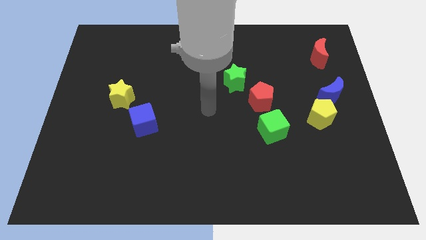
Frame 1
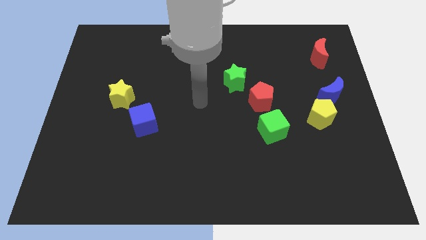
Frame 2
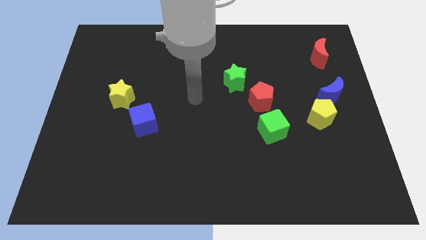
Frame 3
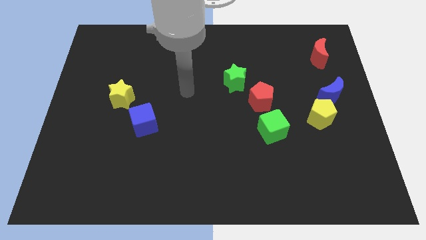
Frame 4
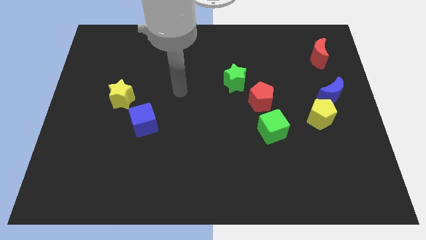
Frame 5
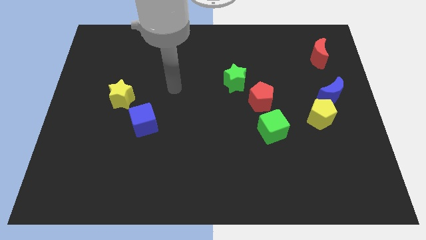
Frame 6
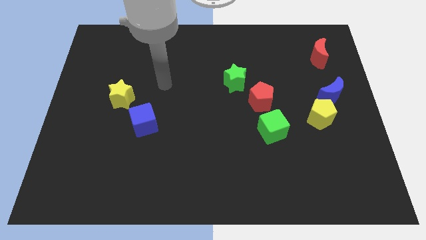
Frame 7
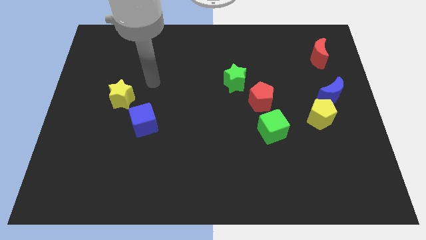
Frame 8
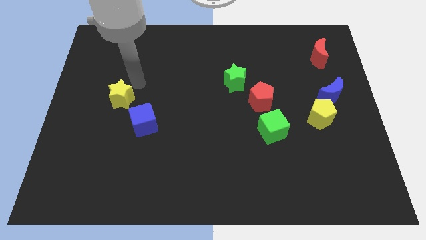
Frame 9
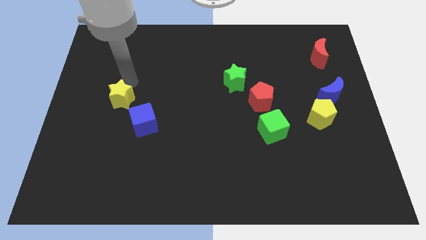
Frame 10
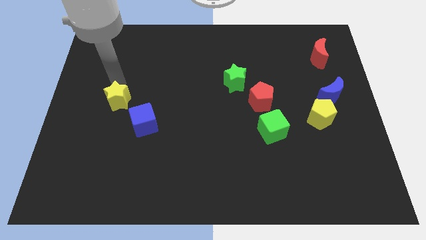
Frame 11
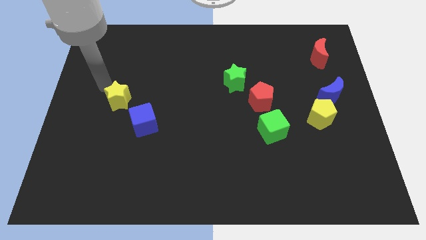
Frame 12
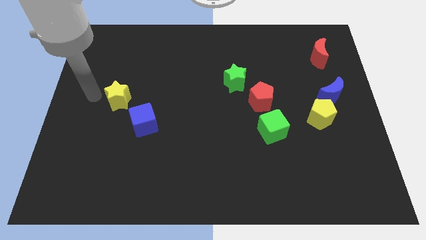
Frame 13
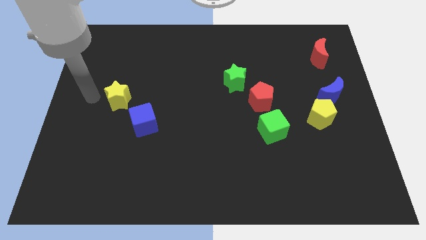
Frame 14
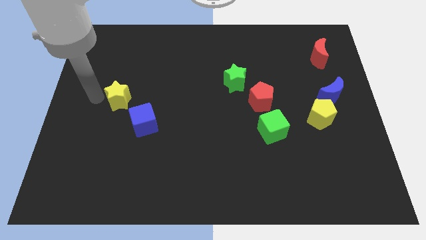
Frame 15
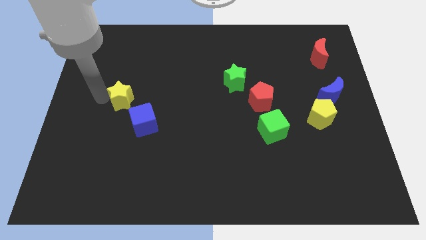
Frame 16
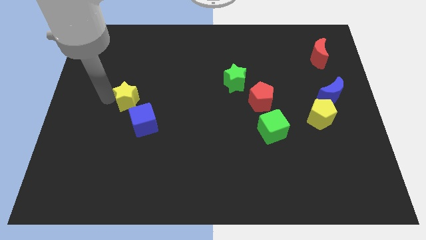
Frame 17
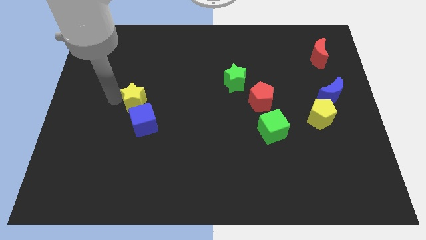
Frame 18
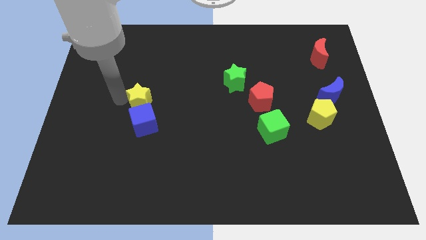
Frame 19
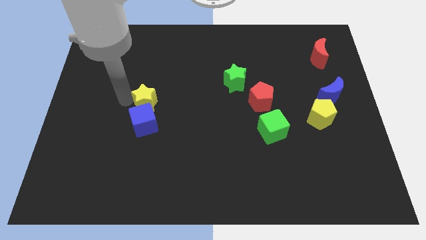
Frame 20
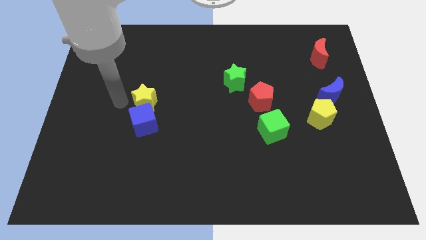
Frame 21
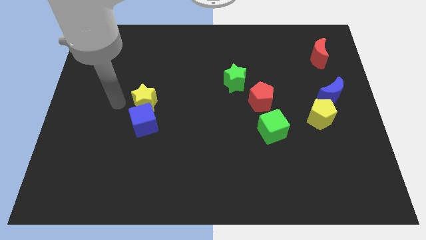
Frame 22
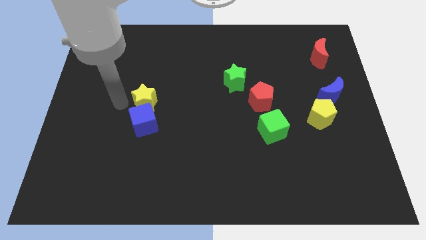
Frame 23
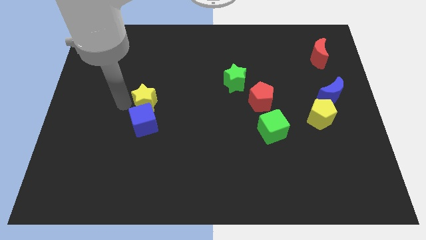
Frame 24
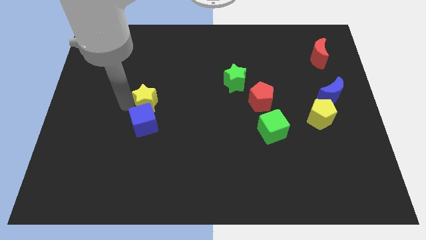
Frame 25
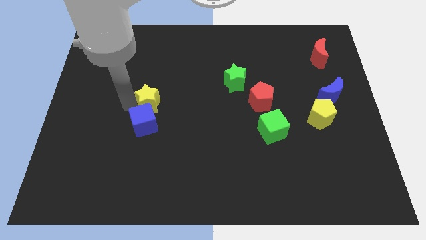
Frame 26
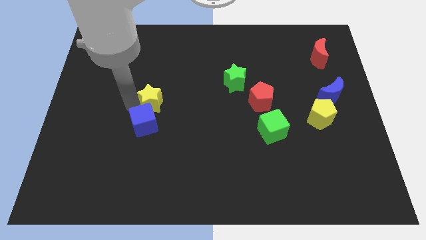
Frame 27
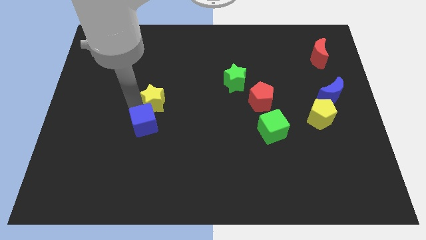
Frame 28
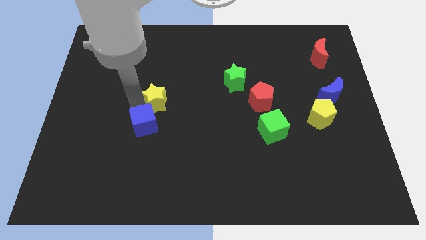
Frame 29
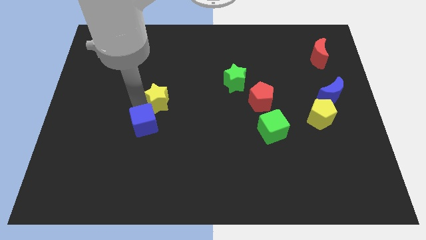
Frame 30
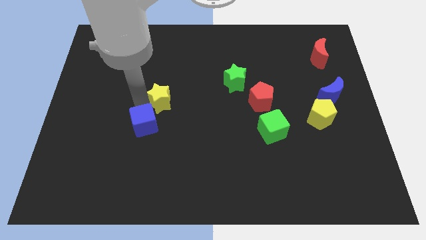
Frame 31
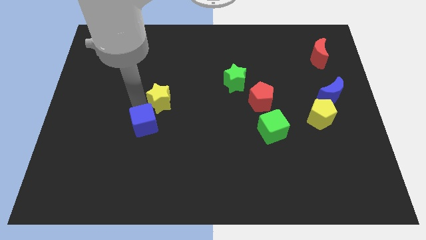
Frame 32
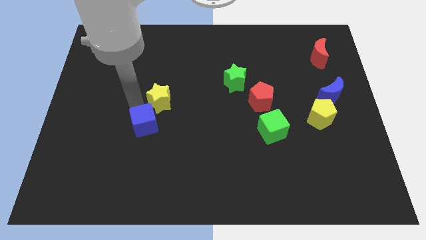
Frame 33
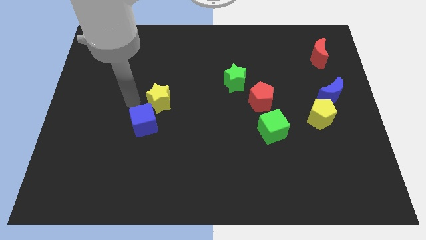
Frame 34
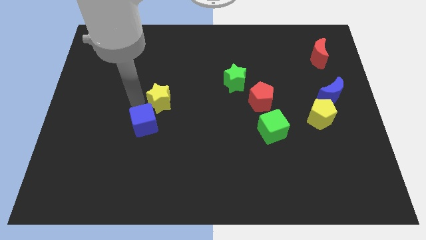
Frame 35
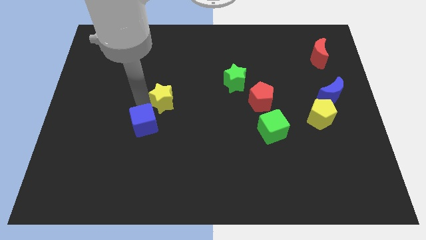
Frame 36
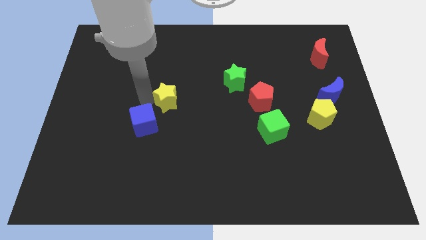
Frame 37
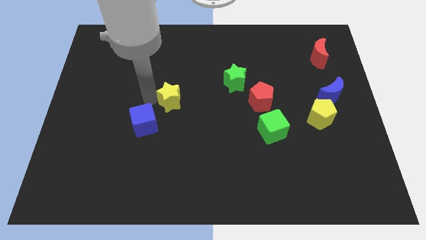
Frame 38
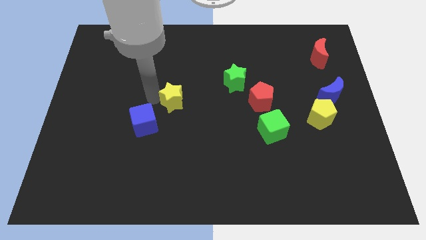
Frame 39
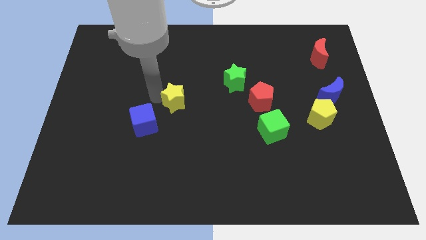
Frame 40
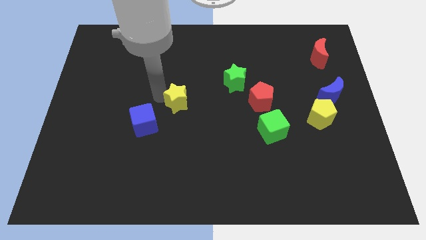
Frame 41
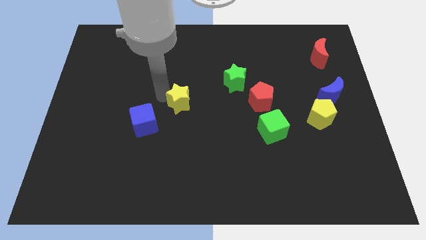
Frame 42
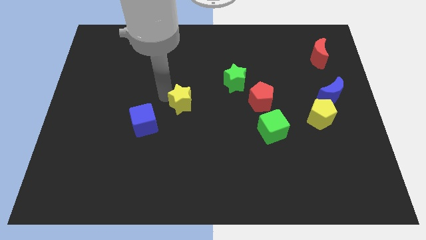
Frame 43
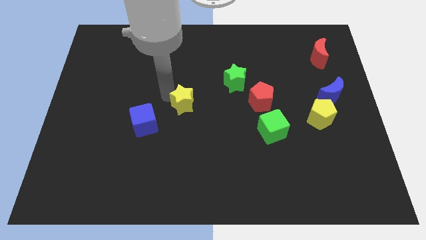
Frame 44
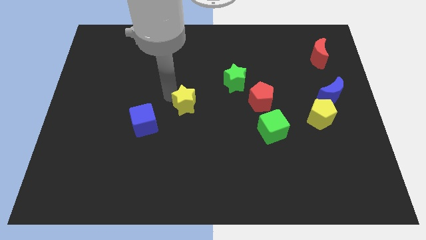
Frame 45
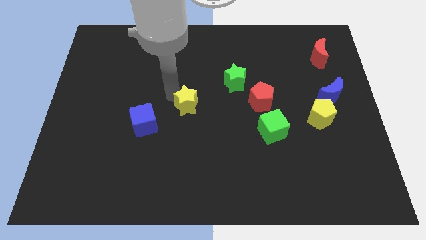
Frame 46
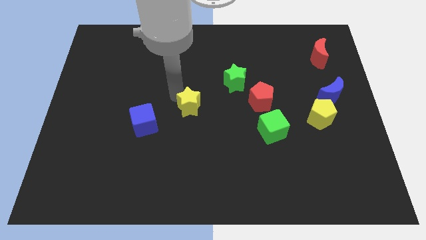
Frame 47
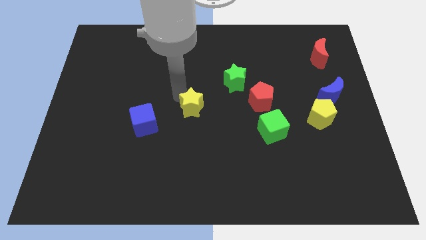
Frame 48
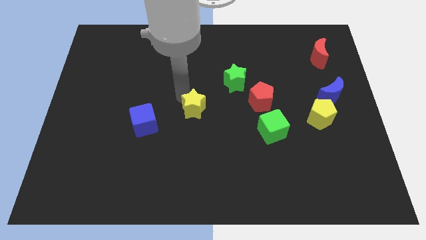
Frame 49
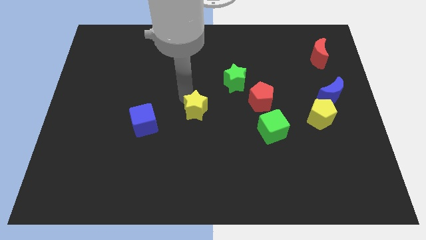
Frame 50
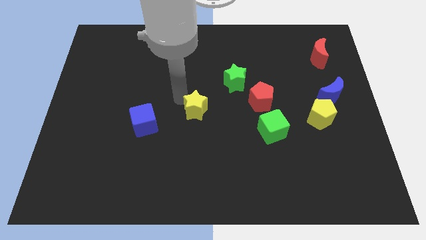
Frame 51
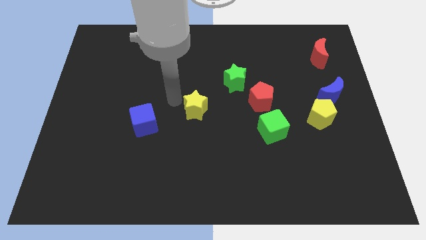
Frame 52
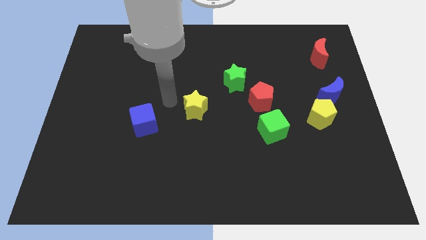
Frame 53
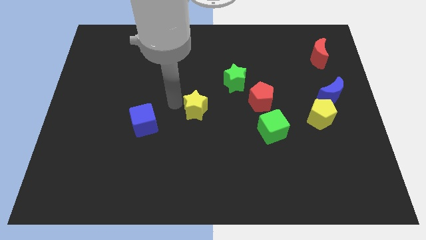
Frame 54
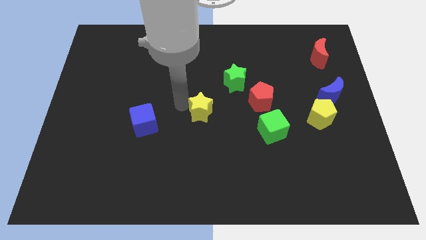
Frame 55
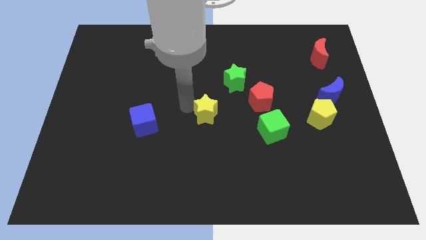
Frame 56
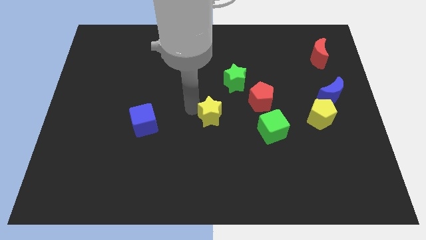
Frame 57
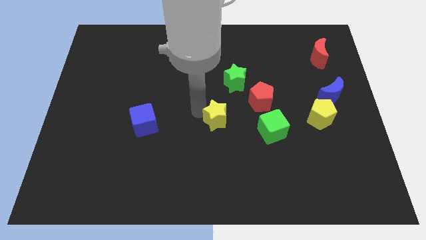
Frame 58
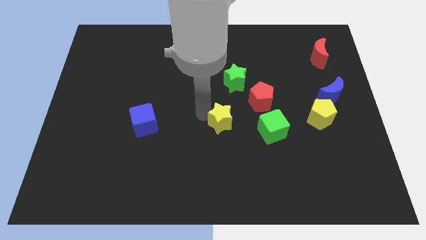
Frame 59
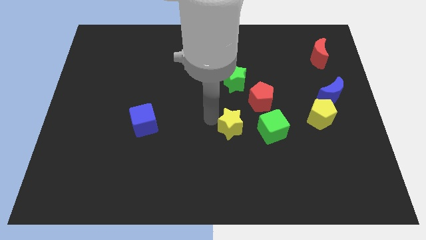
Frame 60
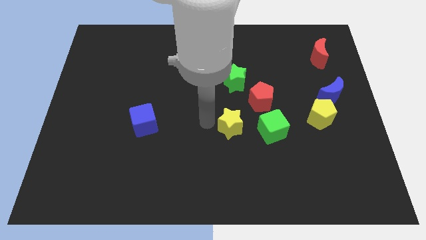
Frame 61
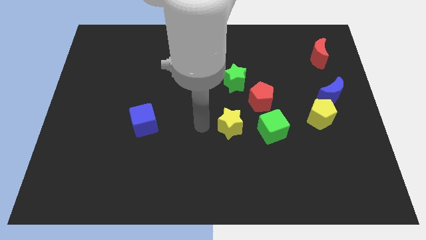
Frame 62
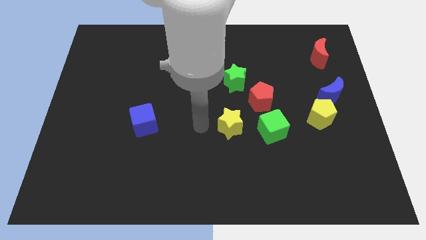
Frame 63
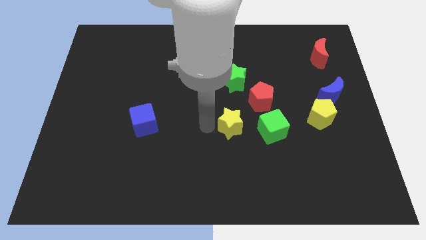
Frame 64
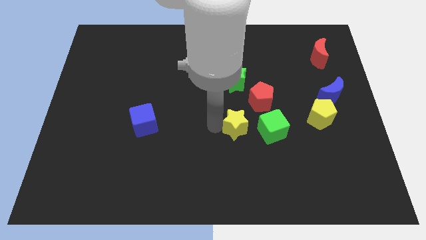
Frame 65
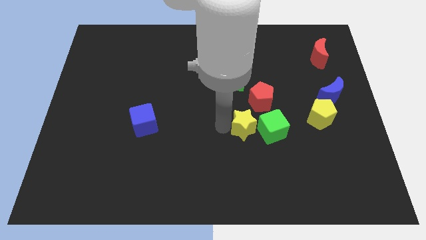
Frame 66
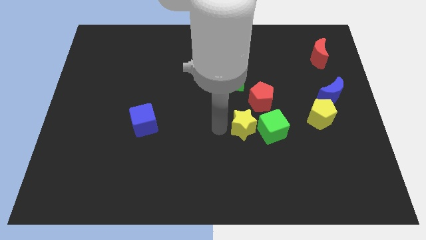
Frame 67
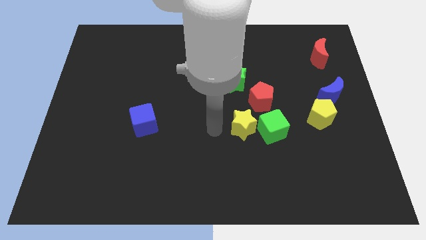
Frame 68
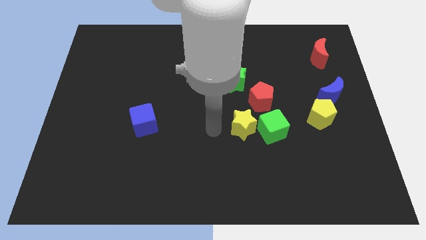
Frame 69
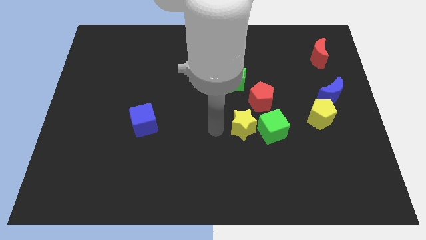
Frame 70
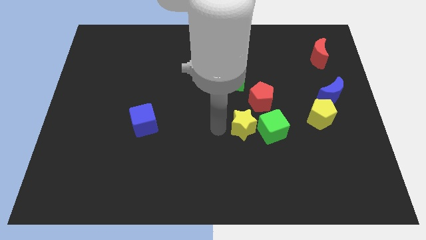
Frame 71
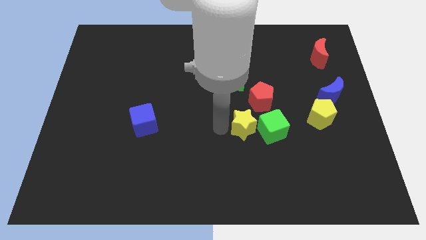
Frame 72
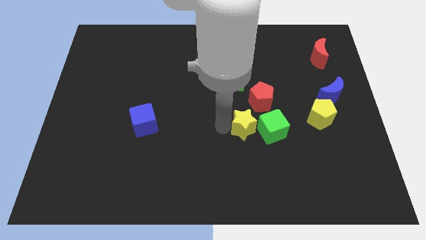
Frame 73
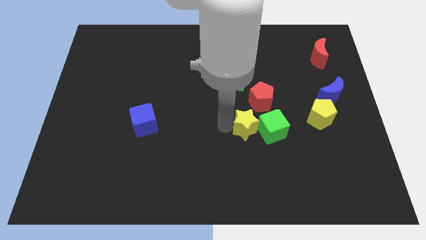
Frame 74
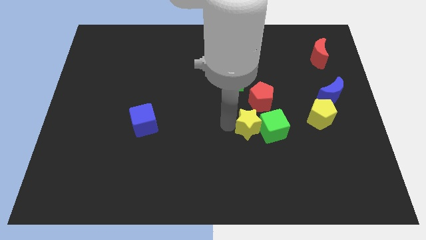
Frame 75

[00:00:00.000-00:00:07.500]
push the yellow star close to the green cube
